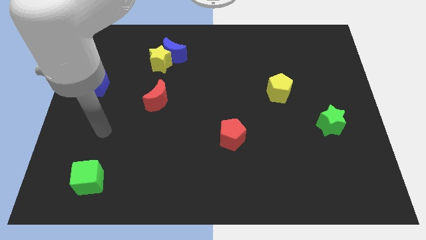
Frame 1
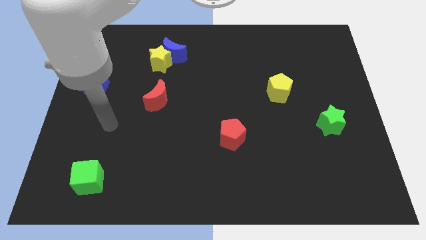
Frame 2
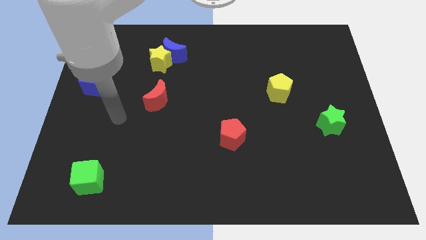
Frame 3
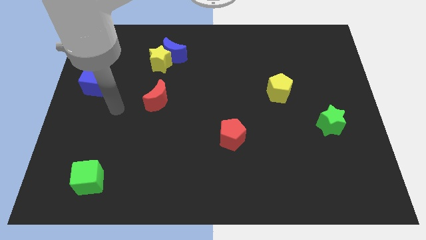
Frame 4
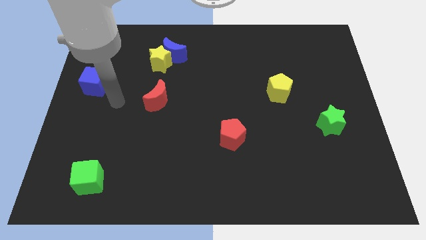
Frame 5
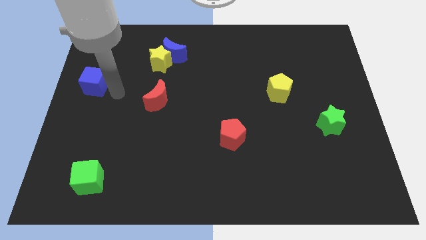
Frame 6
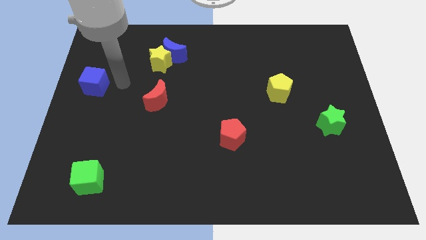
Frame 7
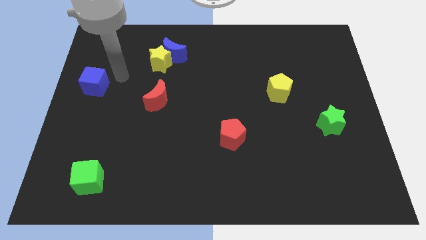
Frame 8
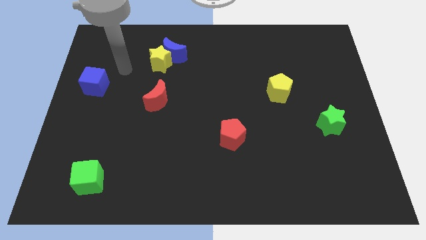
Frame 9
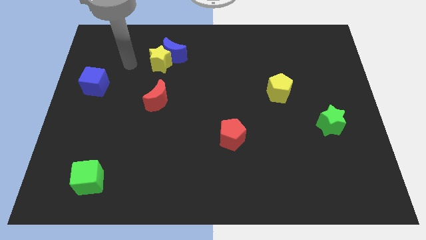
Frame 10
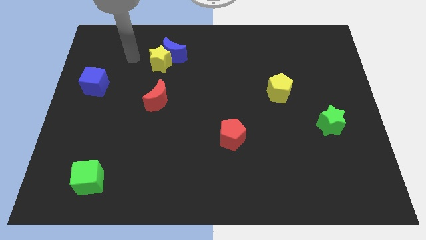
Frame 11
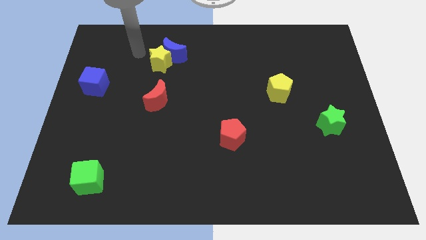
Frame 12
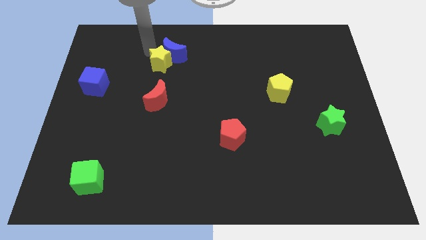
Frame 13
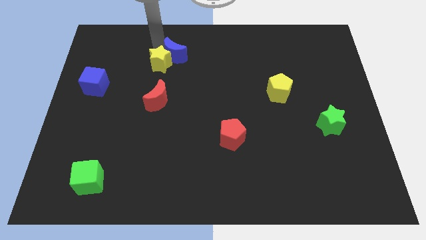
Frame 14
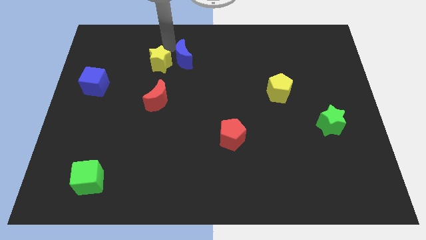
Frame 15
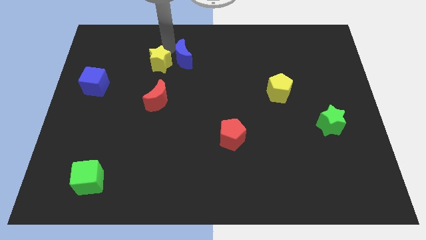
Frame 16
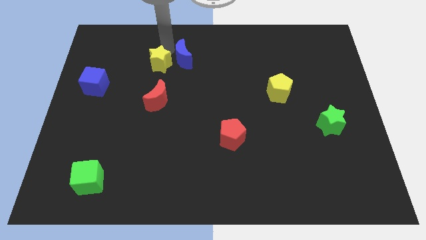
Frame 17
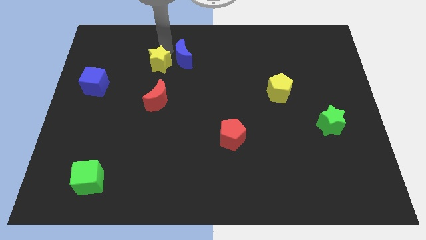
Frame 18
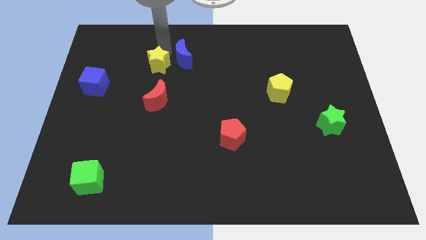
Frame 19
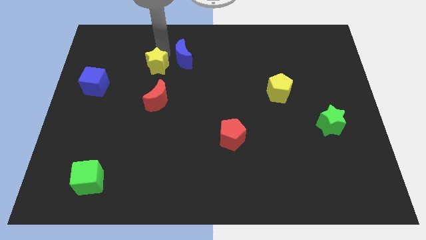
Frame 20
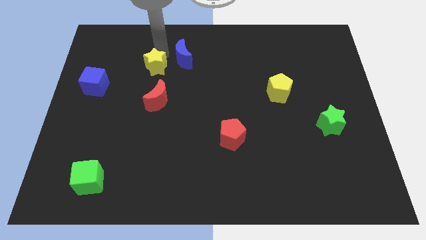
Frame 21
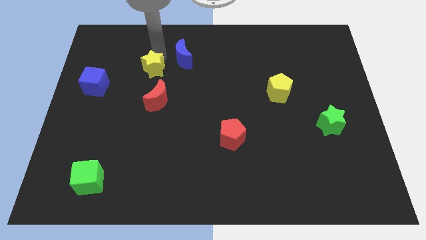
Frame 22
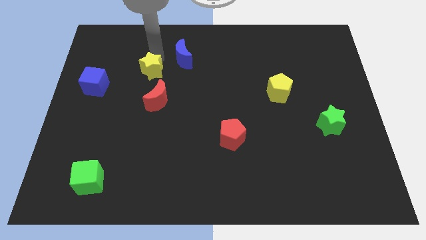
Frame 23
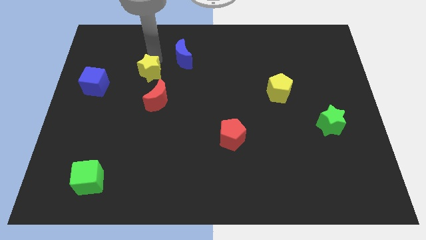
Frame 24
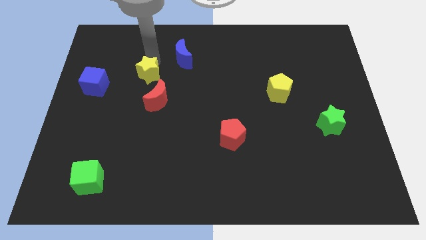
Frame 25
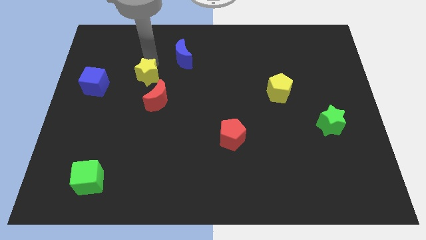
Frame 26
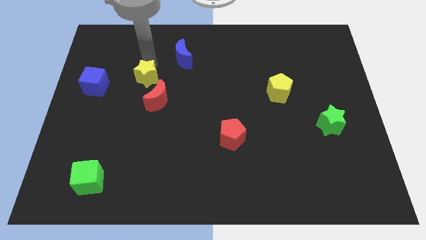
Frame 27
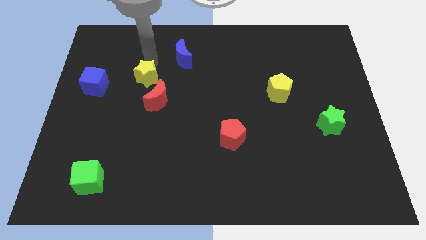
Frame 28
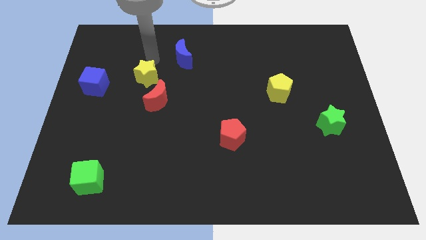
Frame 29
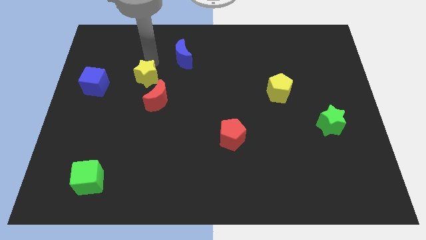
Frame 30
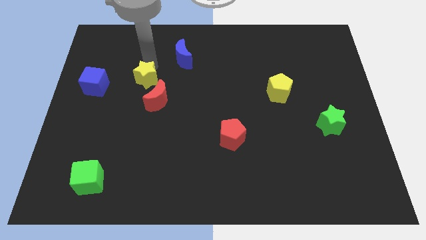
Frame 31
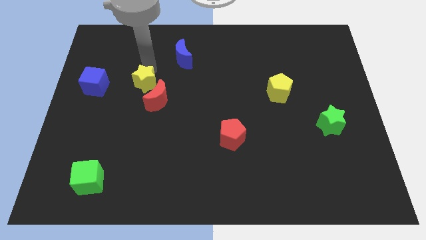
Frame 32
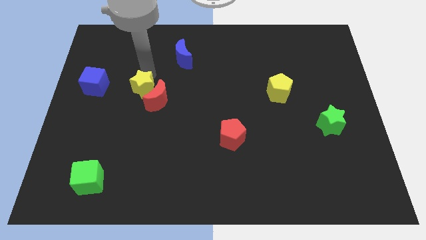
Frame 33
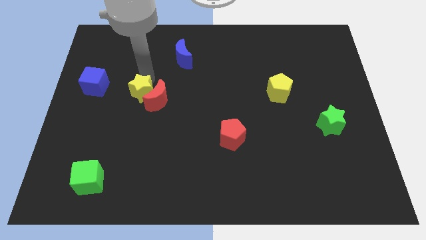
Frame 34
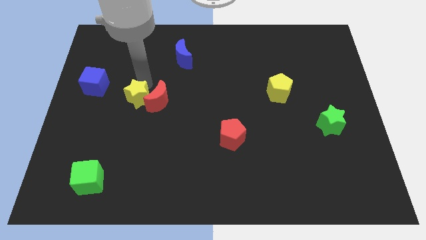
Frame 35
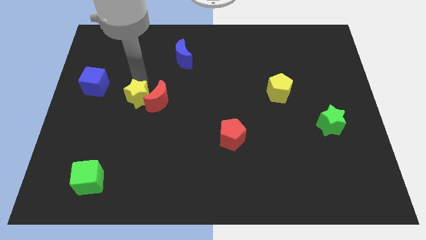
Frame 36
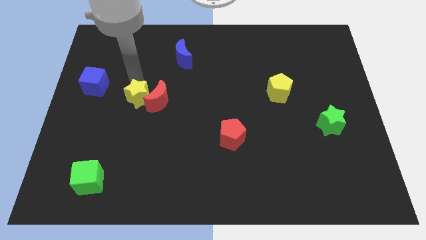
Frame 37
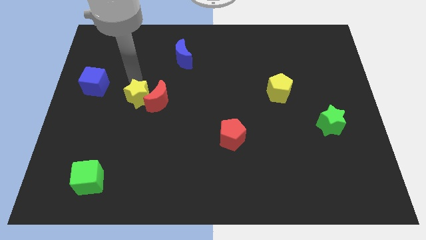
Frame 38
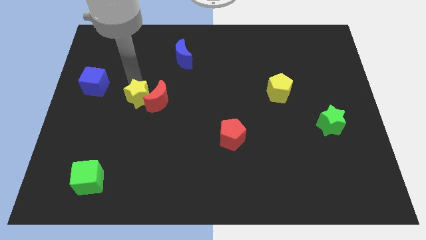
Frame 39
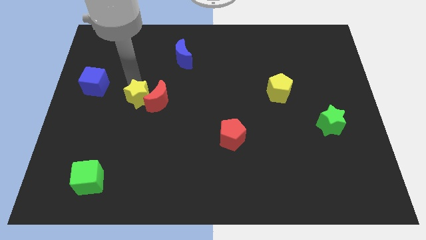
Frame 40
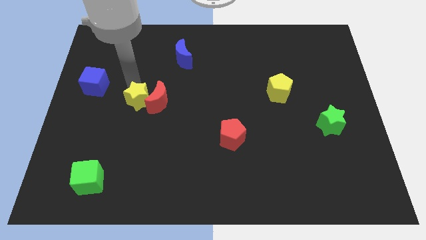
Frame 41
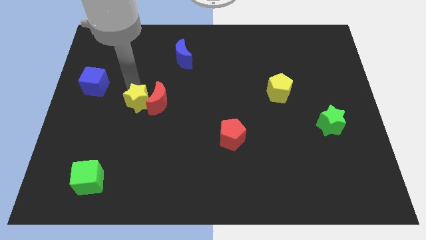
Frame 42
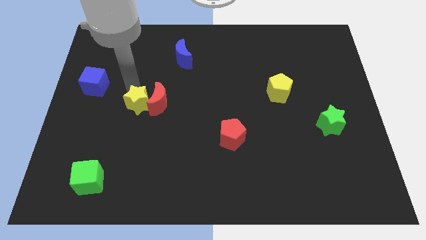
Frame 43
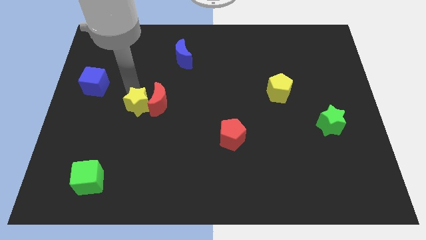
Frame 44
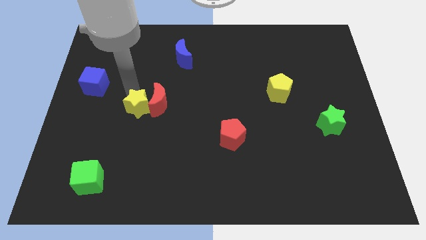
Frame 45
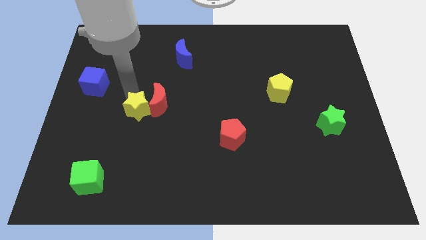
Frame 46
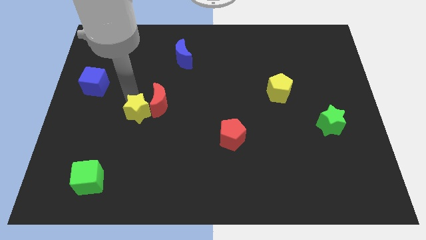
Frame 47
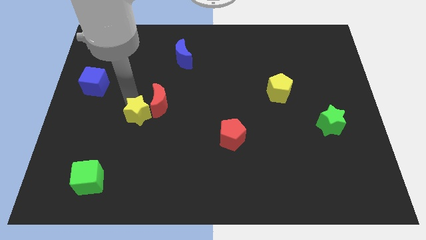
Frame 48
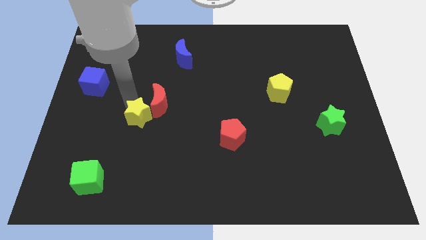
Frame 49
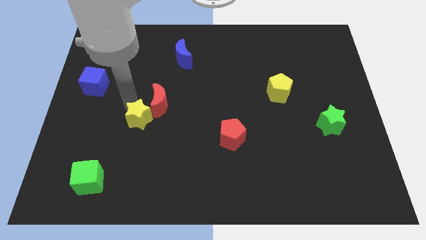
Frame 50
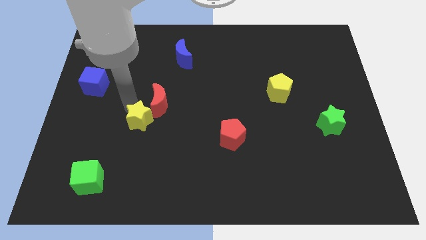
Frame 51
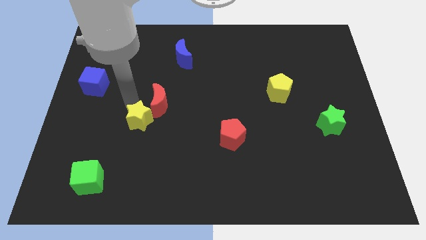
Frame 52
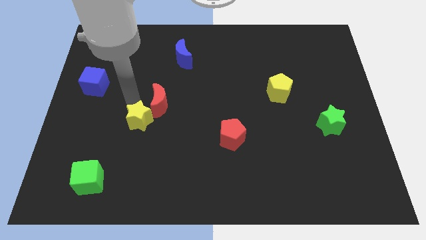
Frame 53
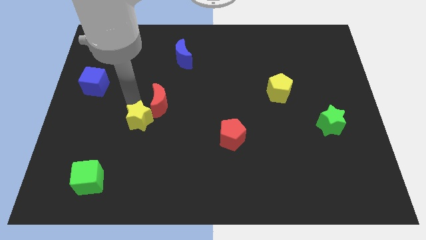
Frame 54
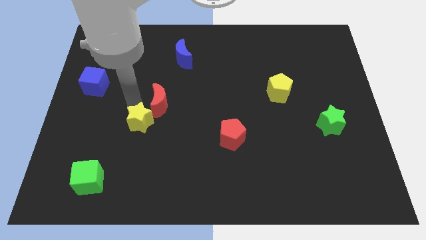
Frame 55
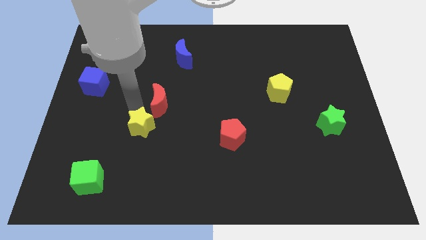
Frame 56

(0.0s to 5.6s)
move the yellow star down

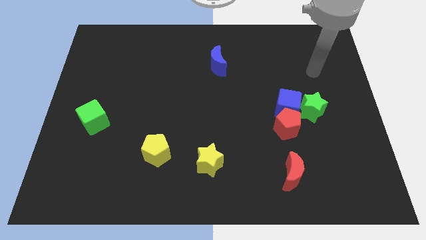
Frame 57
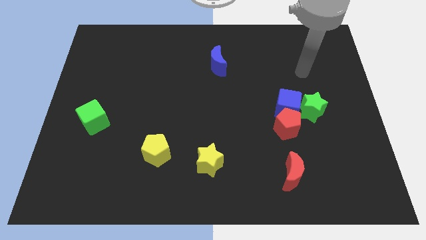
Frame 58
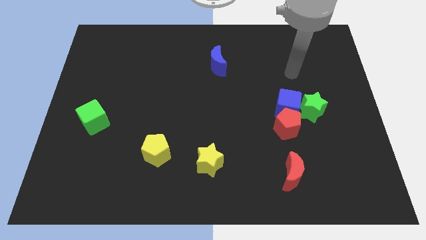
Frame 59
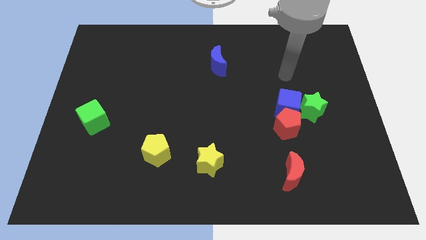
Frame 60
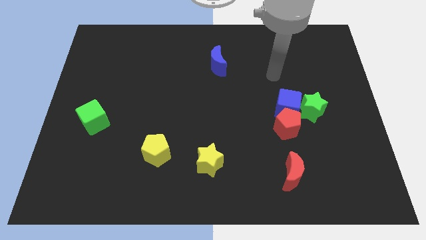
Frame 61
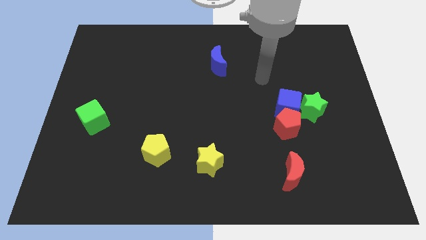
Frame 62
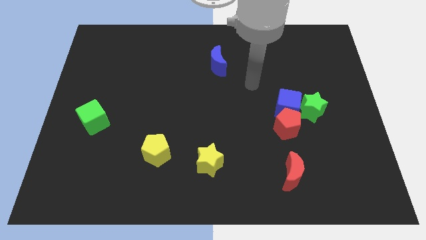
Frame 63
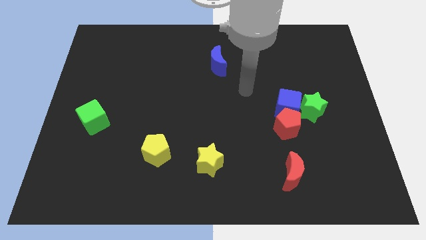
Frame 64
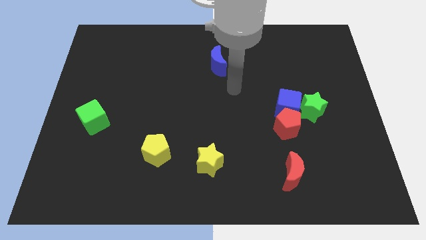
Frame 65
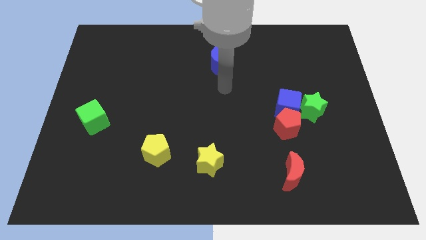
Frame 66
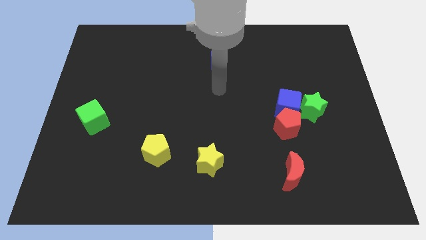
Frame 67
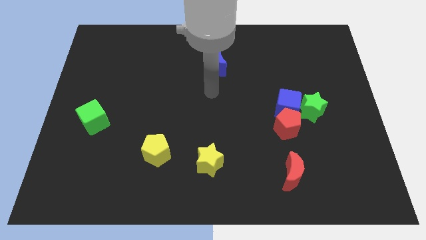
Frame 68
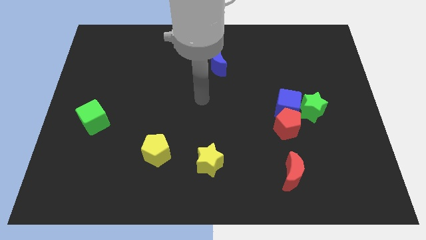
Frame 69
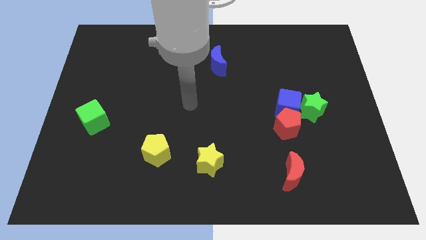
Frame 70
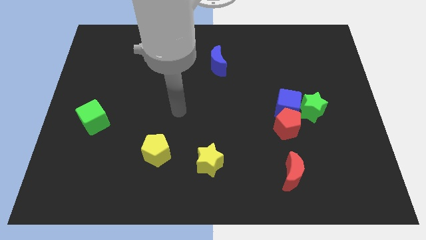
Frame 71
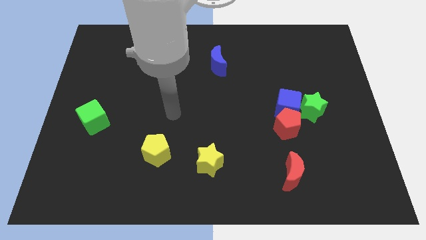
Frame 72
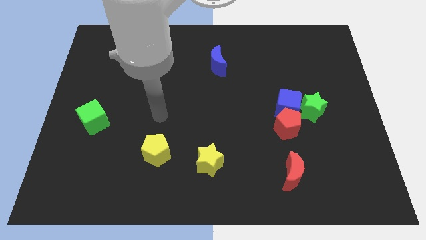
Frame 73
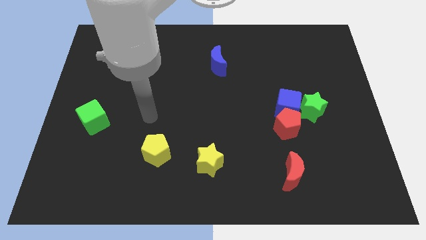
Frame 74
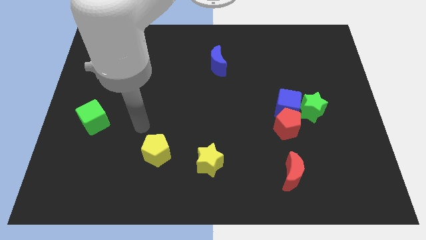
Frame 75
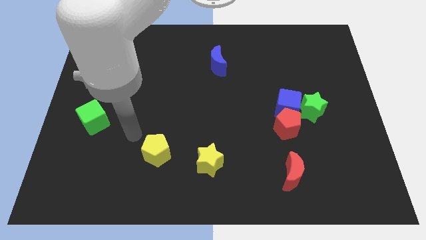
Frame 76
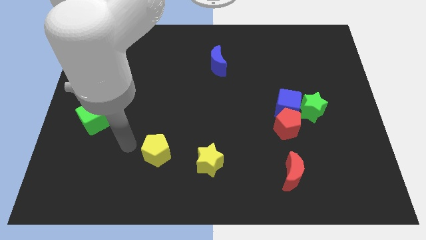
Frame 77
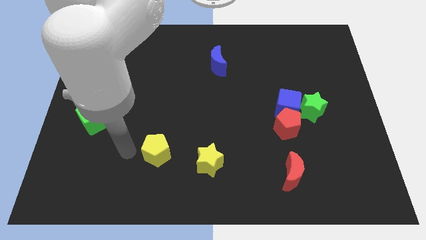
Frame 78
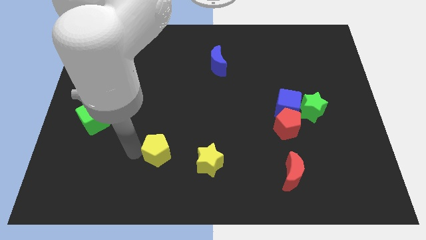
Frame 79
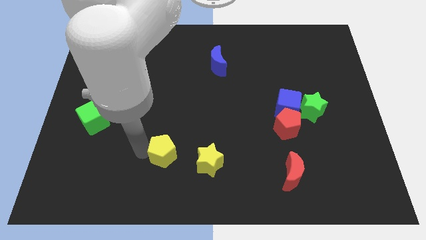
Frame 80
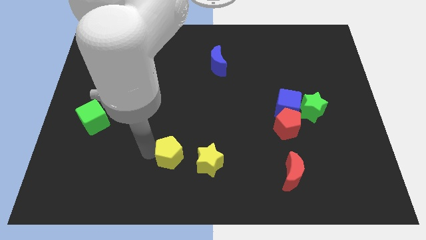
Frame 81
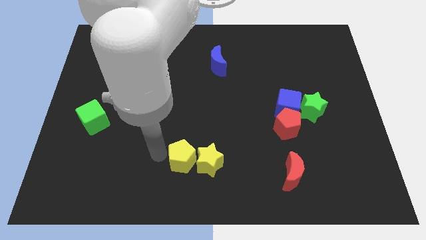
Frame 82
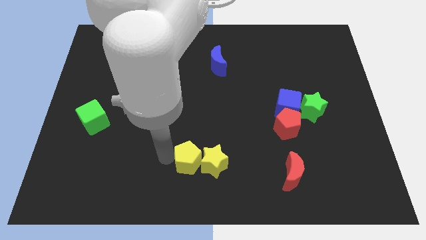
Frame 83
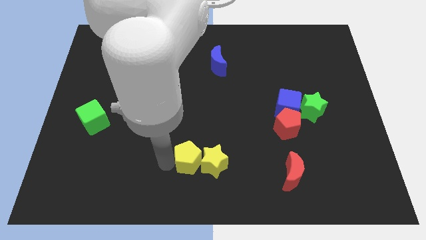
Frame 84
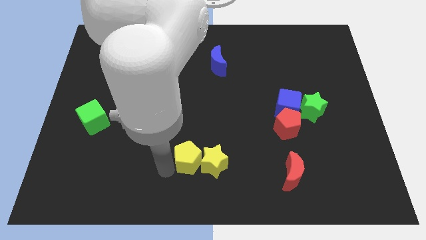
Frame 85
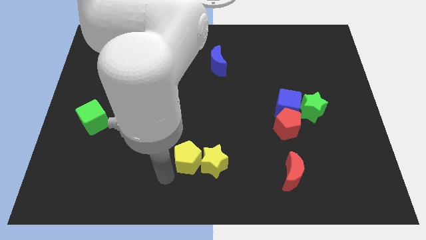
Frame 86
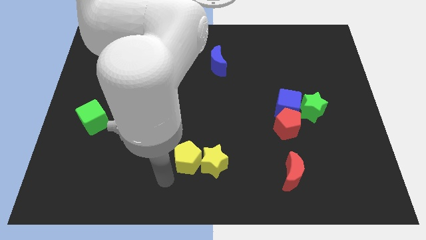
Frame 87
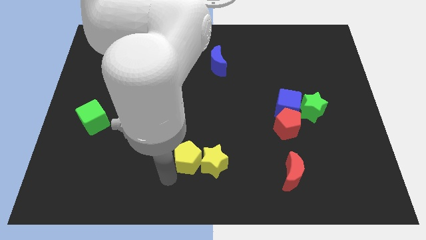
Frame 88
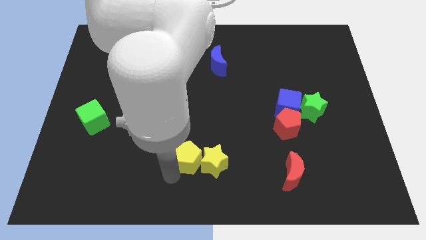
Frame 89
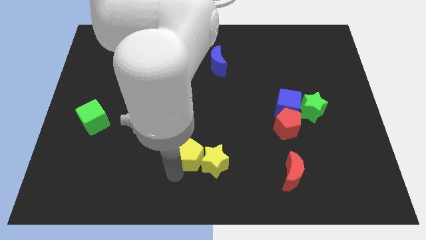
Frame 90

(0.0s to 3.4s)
slightly slide the yellow pentagon right
